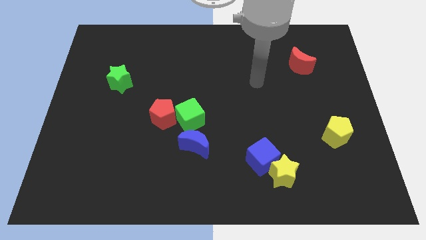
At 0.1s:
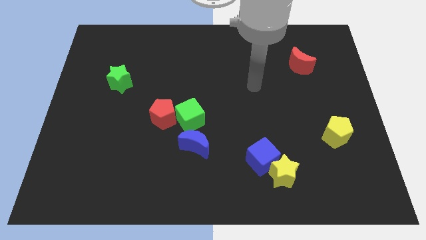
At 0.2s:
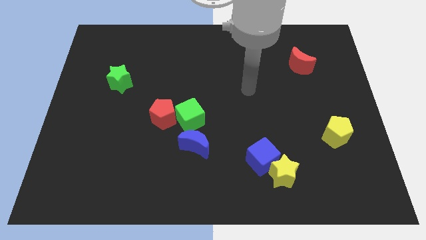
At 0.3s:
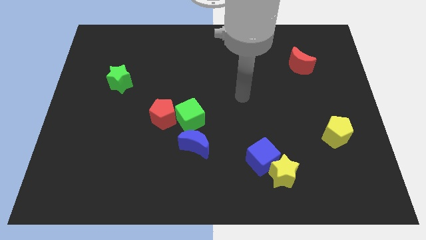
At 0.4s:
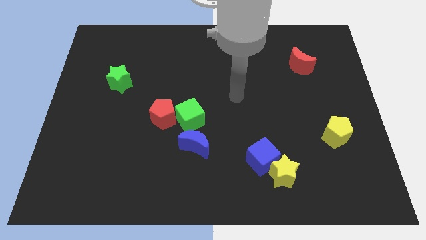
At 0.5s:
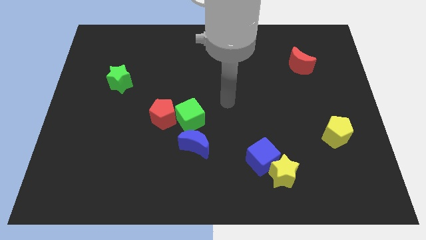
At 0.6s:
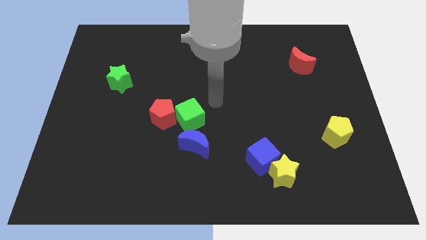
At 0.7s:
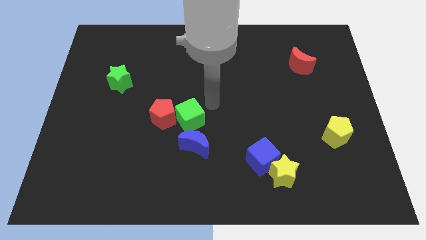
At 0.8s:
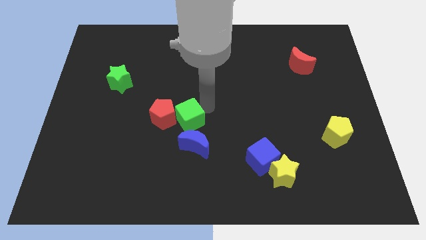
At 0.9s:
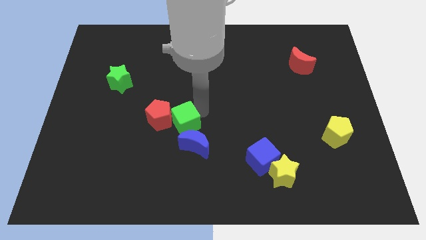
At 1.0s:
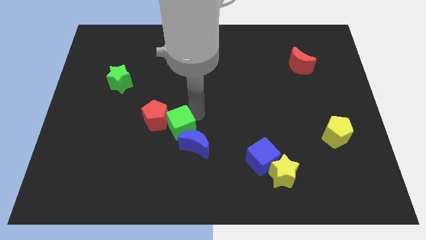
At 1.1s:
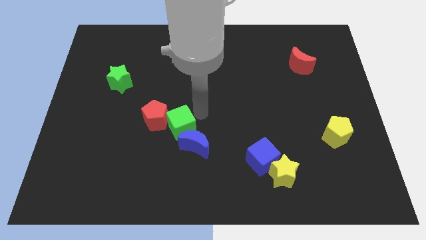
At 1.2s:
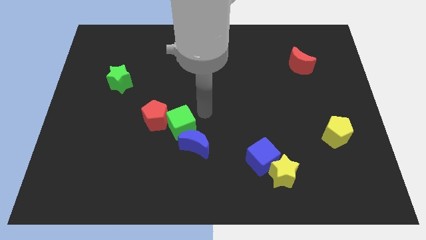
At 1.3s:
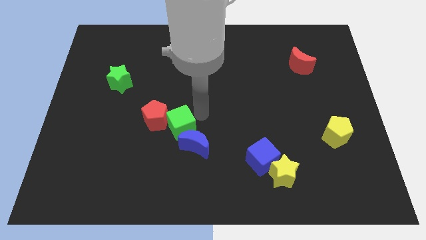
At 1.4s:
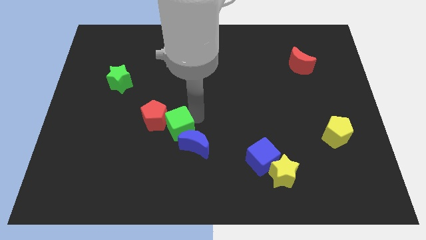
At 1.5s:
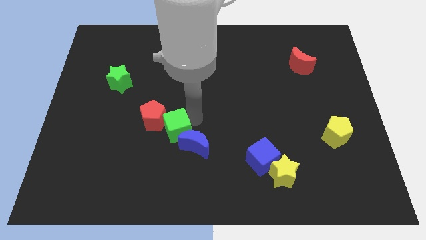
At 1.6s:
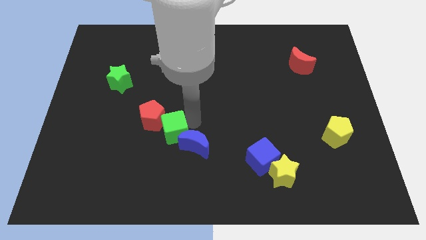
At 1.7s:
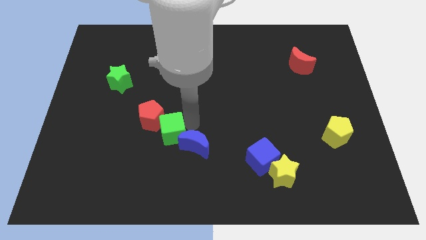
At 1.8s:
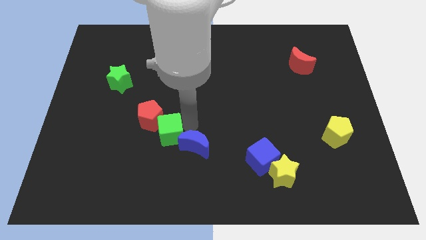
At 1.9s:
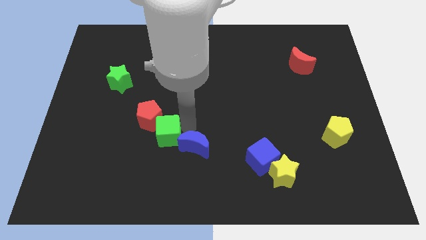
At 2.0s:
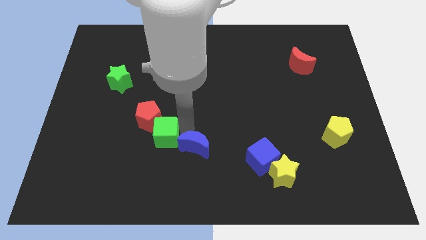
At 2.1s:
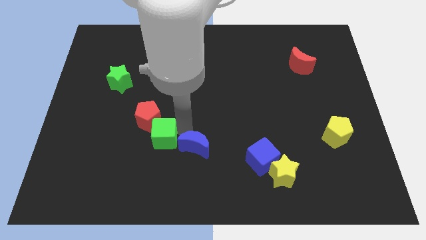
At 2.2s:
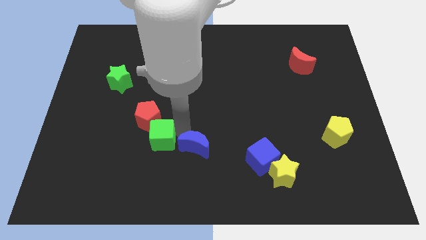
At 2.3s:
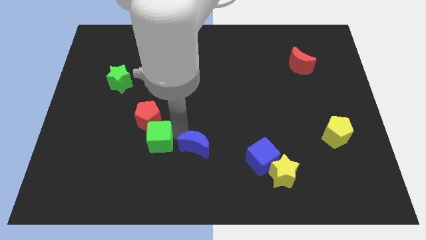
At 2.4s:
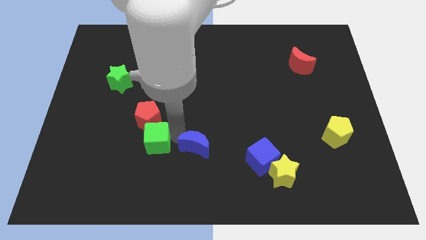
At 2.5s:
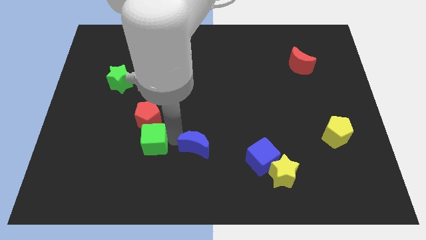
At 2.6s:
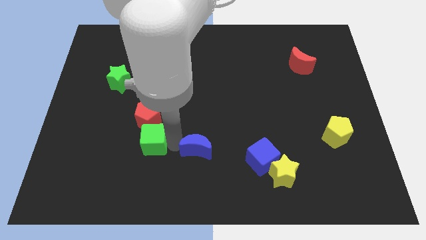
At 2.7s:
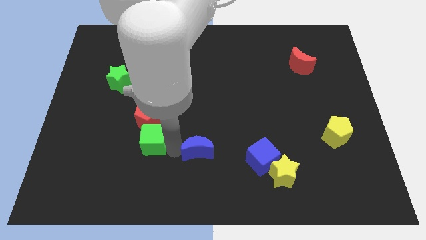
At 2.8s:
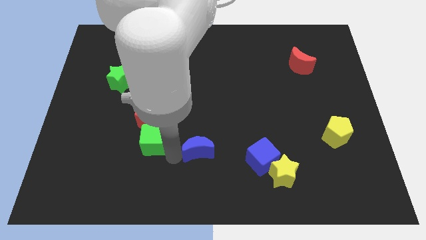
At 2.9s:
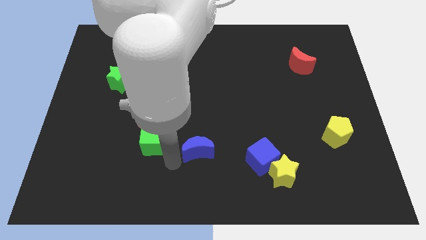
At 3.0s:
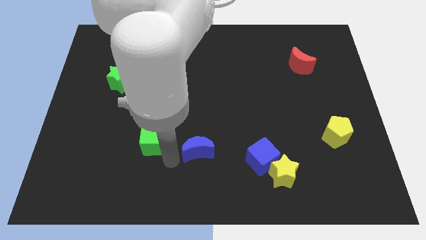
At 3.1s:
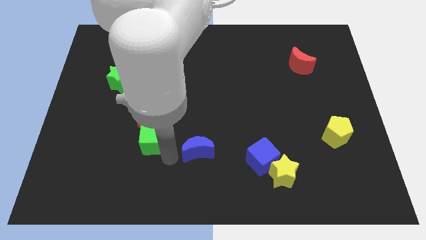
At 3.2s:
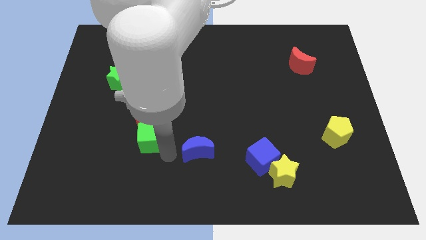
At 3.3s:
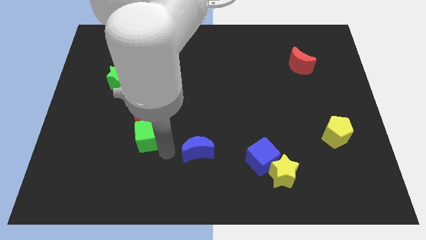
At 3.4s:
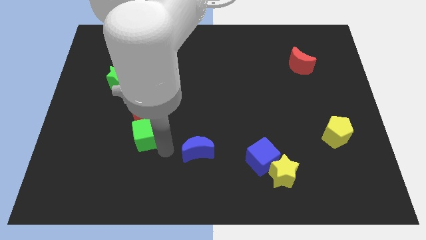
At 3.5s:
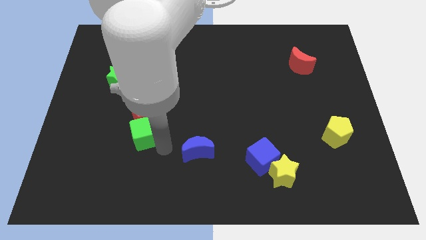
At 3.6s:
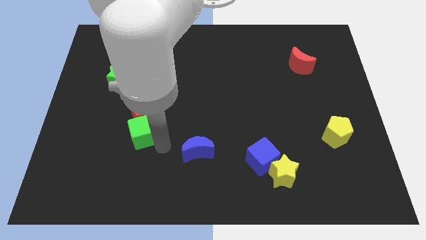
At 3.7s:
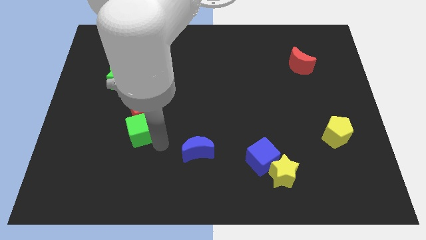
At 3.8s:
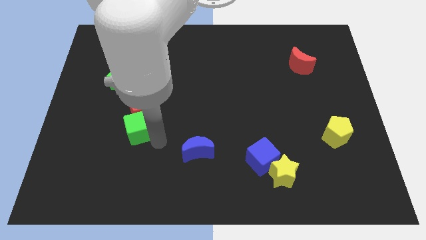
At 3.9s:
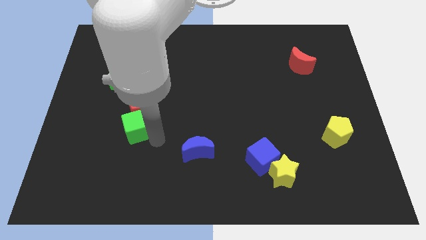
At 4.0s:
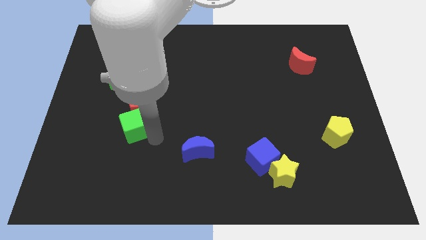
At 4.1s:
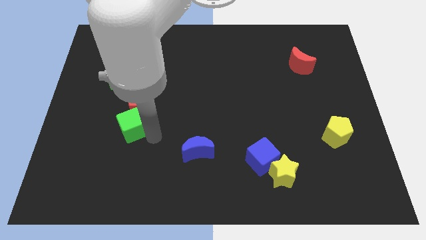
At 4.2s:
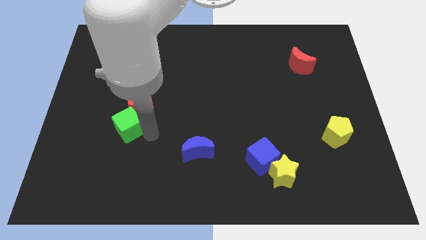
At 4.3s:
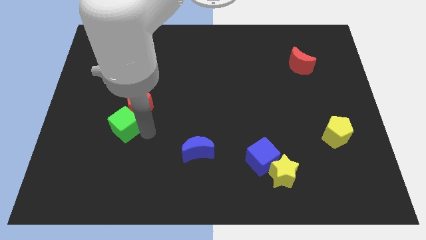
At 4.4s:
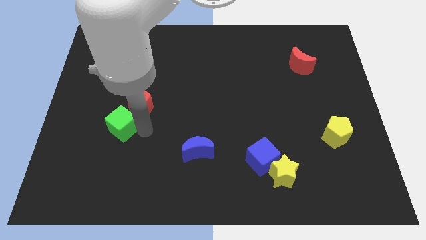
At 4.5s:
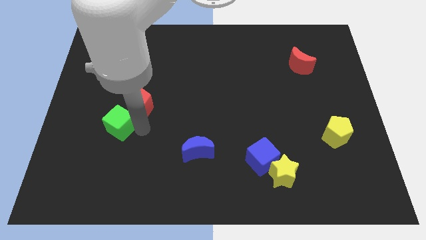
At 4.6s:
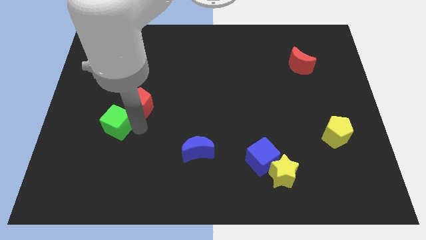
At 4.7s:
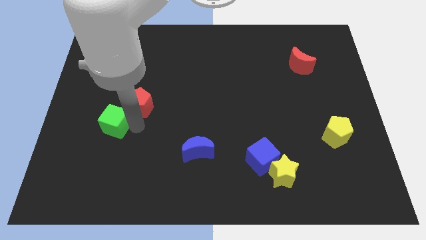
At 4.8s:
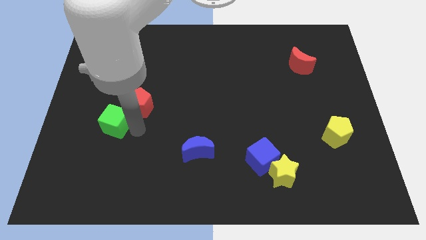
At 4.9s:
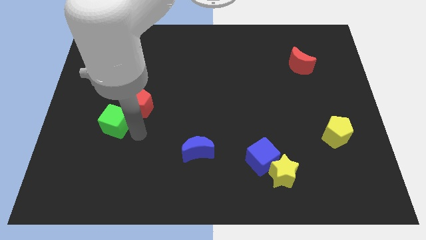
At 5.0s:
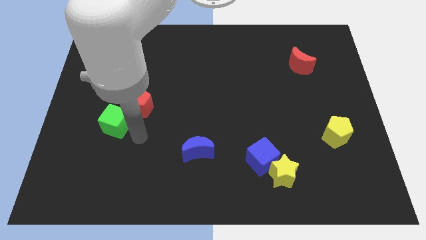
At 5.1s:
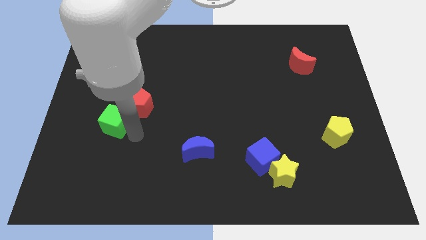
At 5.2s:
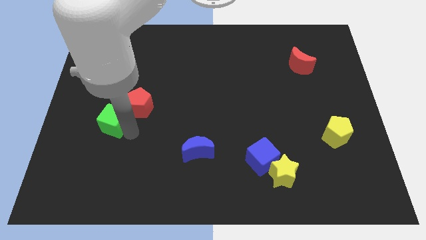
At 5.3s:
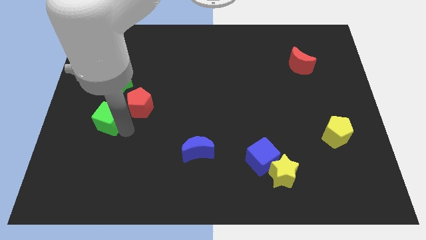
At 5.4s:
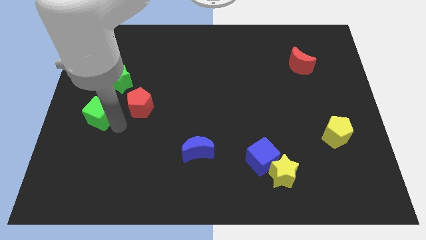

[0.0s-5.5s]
move the green cube to the center left

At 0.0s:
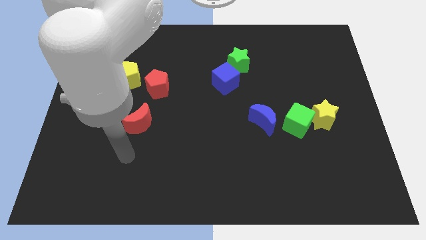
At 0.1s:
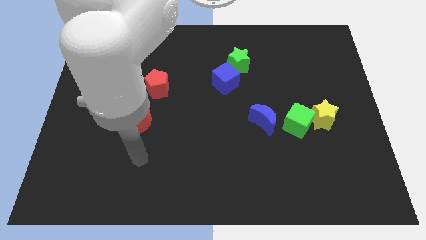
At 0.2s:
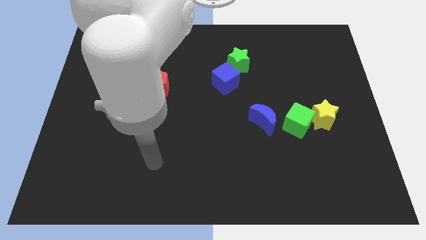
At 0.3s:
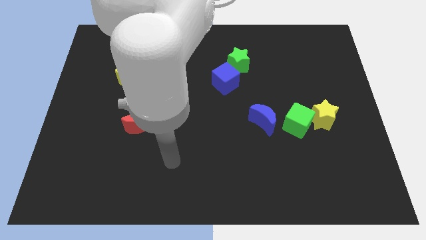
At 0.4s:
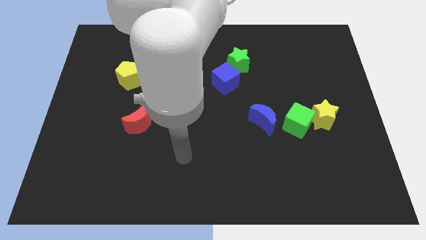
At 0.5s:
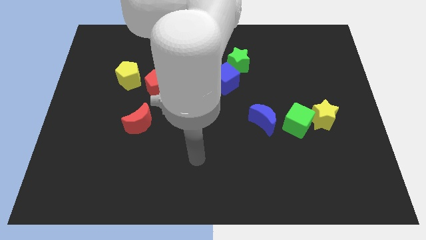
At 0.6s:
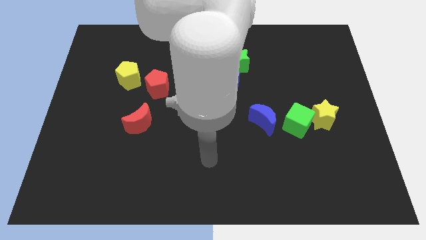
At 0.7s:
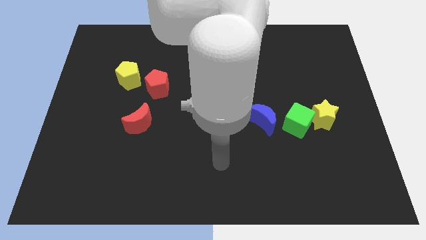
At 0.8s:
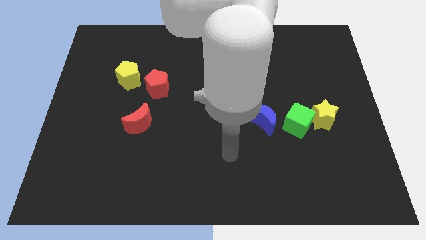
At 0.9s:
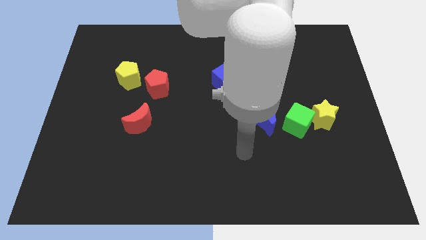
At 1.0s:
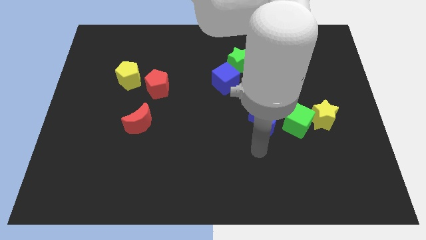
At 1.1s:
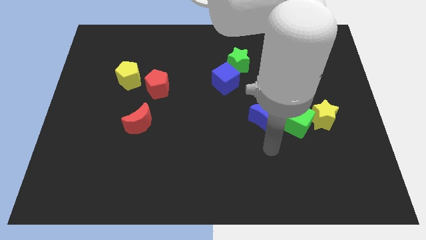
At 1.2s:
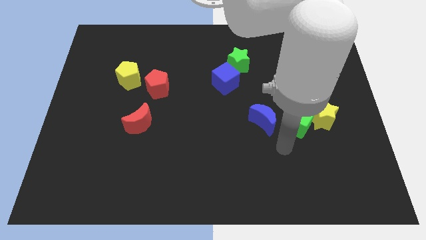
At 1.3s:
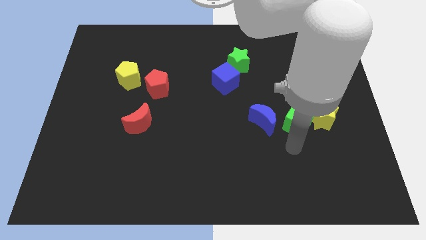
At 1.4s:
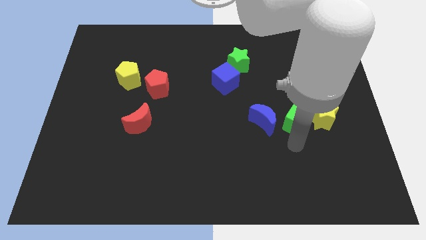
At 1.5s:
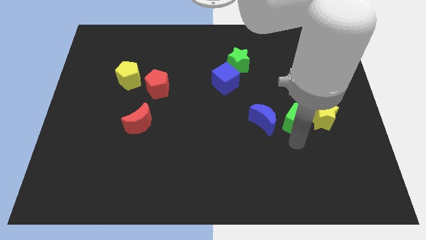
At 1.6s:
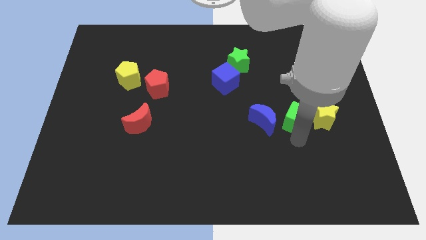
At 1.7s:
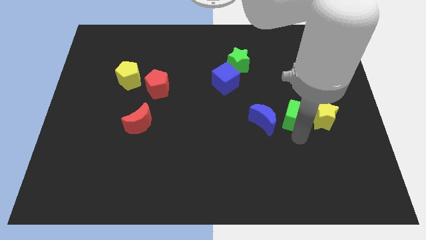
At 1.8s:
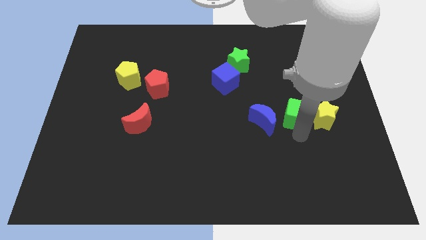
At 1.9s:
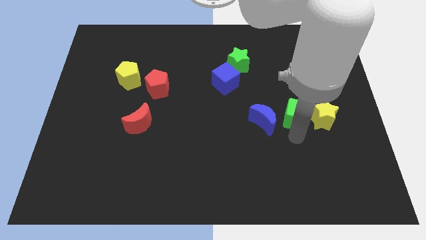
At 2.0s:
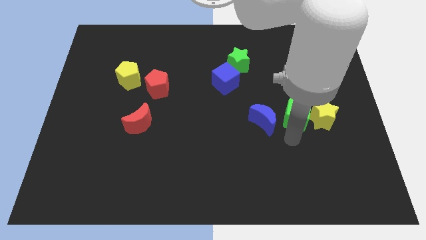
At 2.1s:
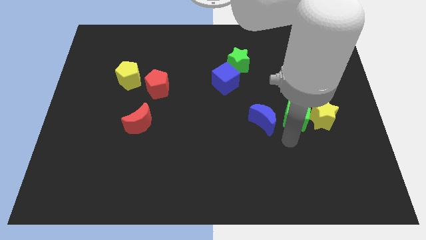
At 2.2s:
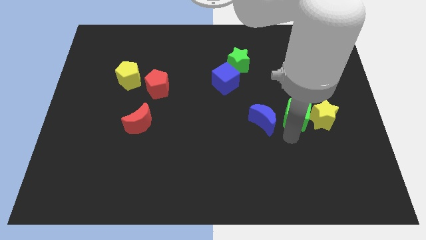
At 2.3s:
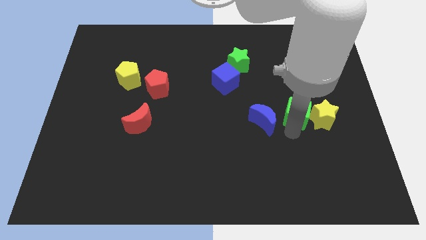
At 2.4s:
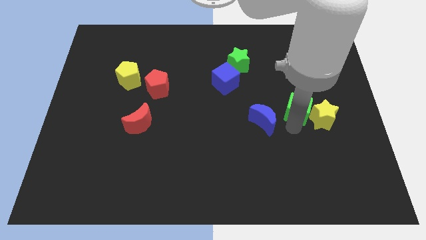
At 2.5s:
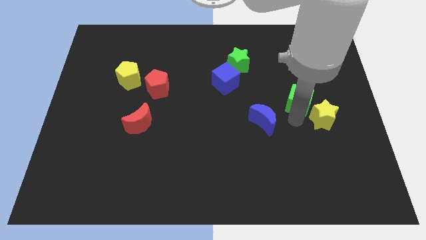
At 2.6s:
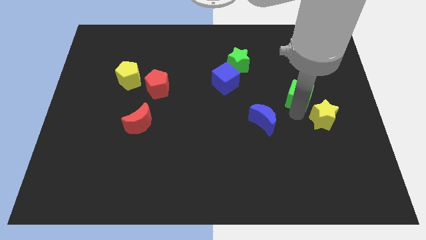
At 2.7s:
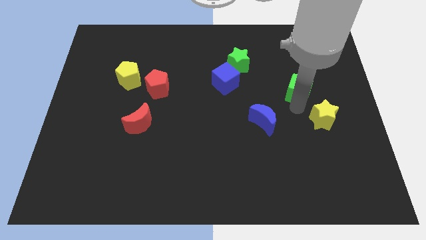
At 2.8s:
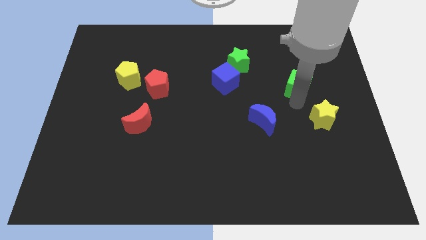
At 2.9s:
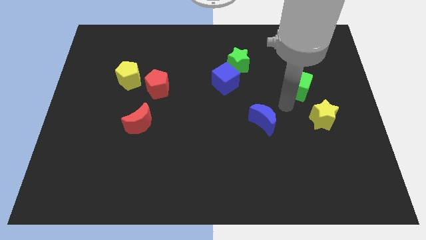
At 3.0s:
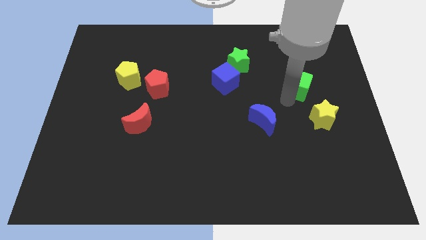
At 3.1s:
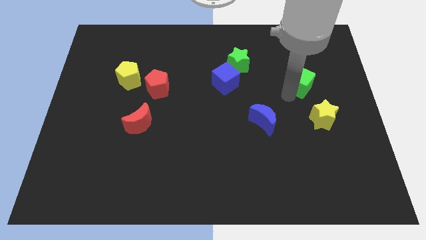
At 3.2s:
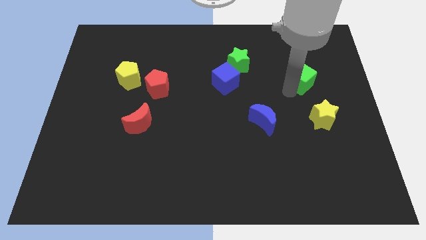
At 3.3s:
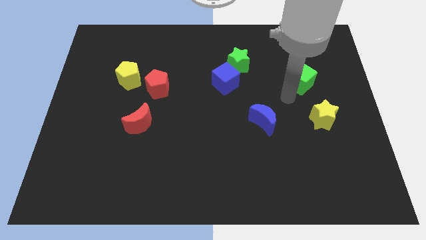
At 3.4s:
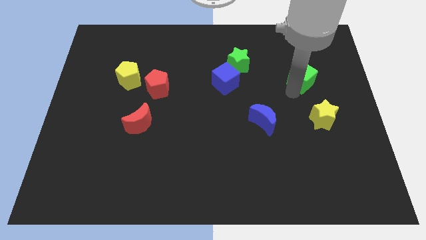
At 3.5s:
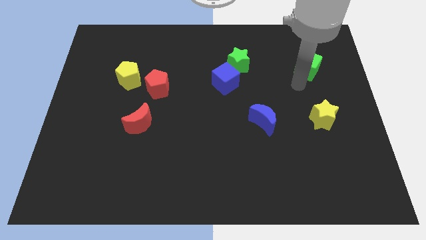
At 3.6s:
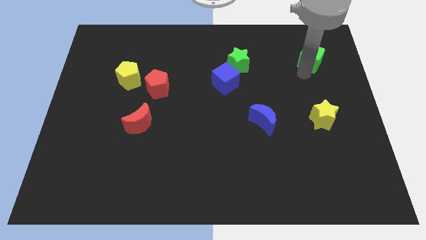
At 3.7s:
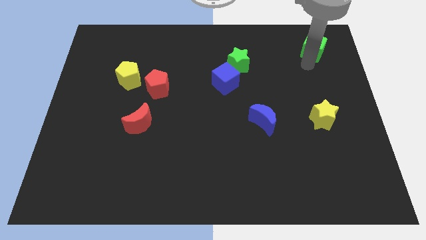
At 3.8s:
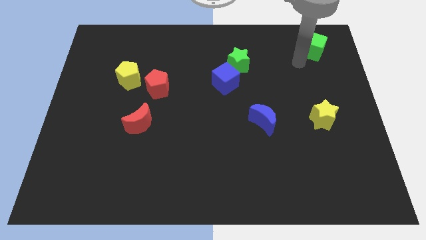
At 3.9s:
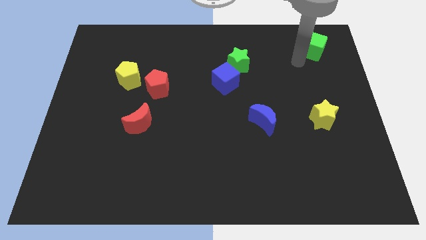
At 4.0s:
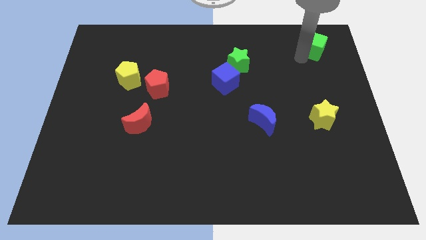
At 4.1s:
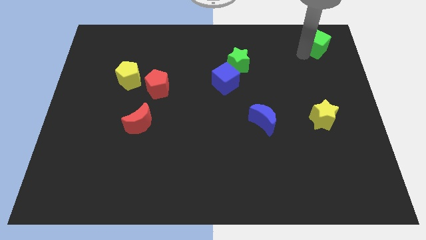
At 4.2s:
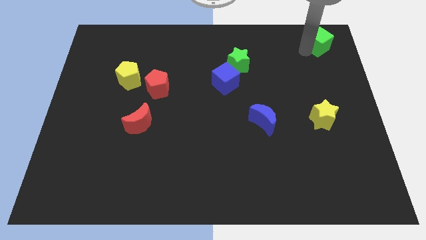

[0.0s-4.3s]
put the green cube to the upper right corner
